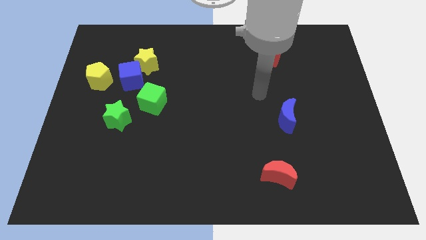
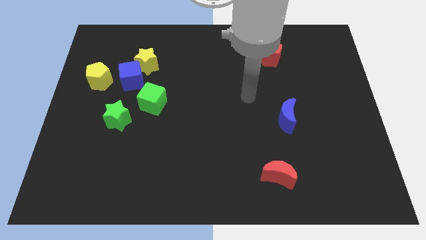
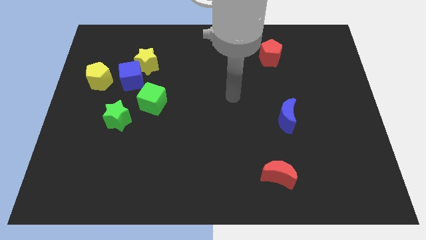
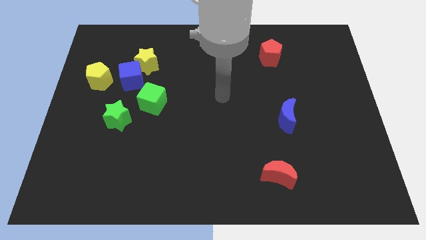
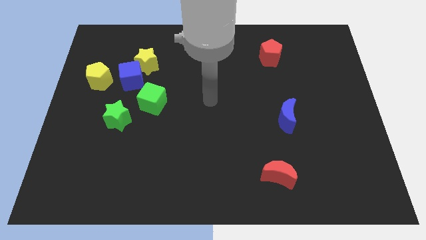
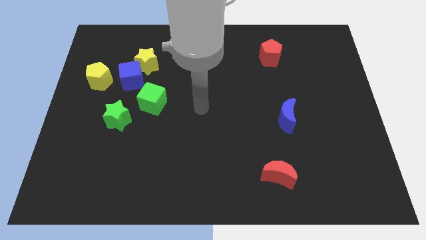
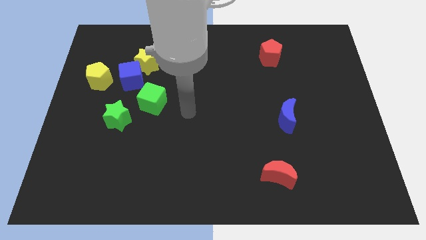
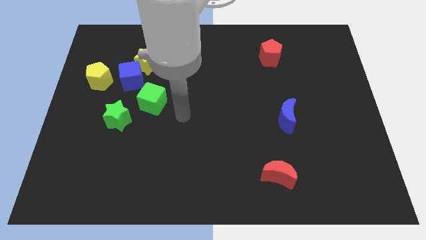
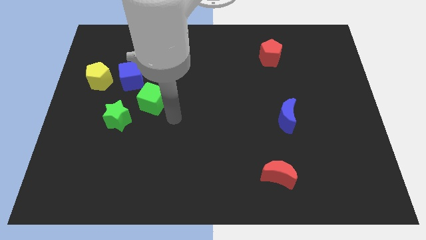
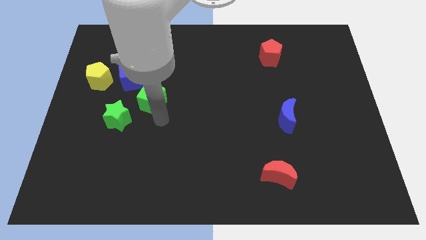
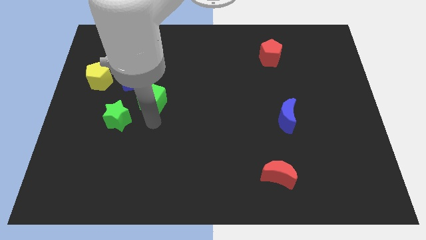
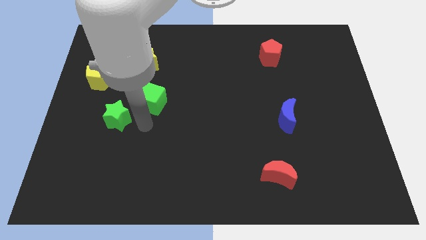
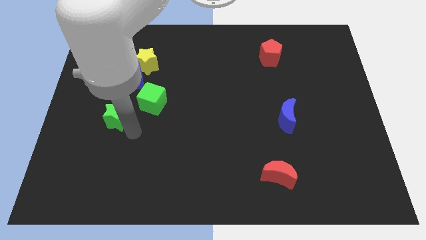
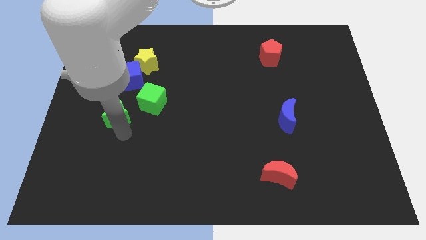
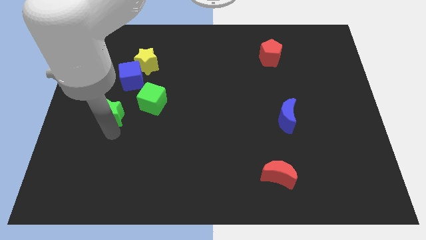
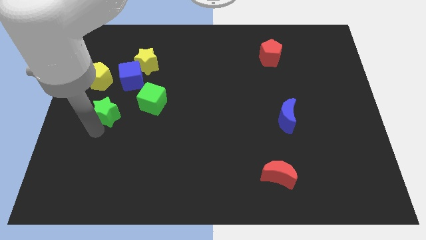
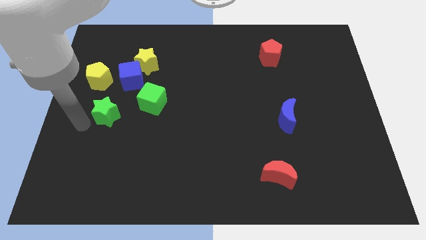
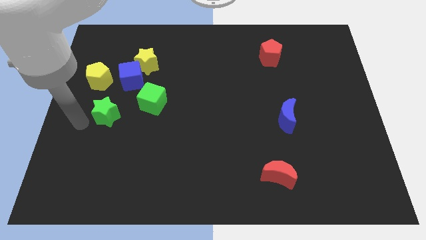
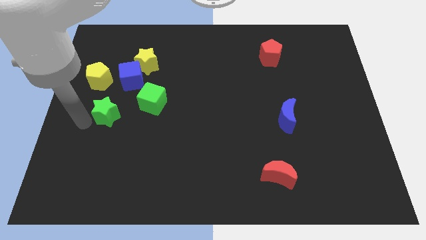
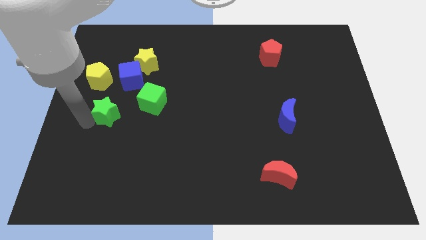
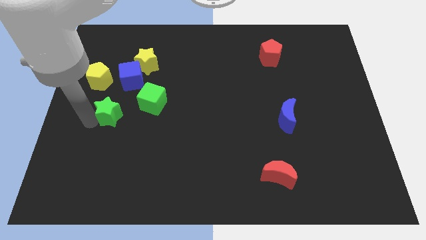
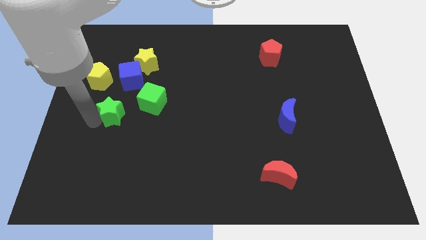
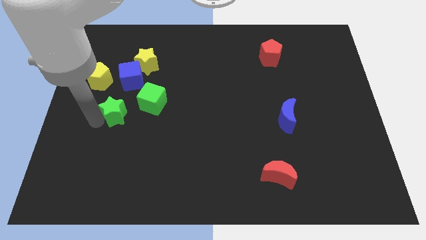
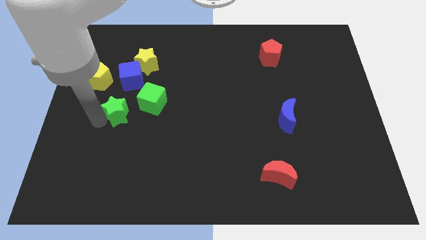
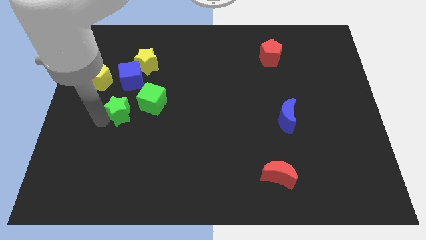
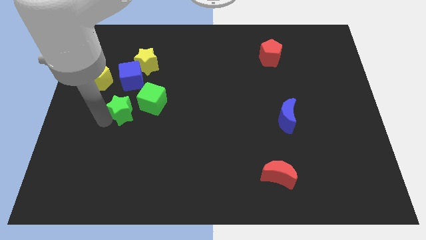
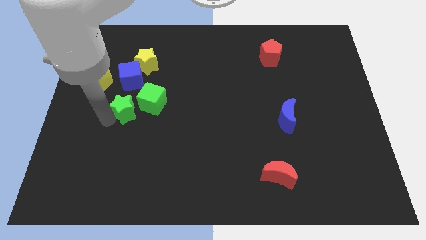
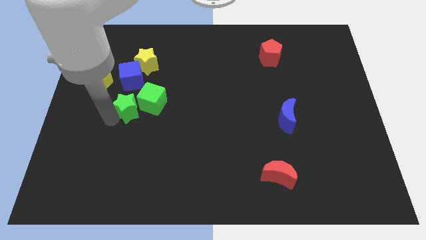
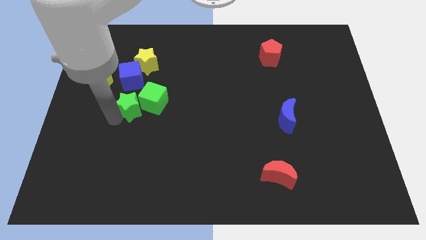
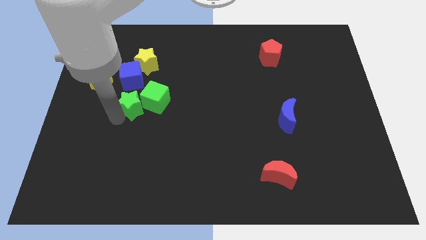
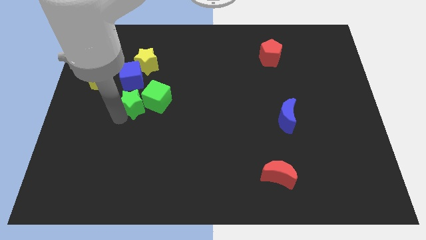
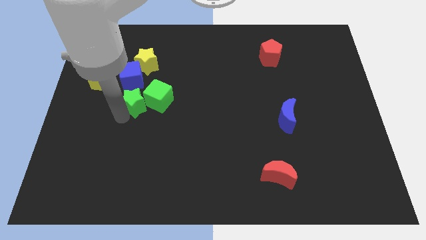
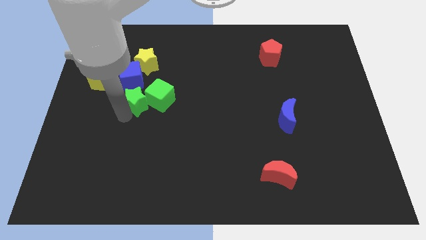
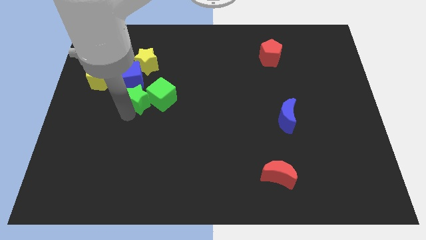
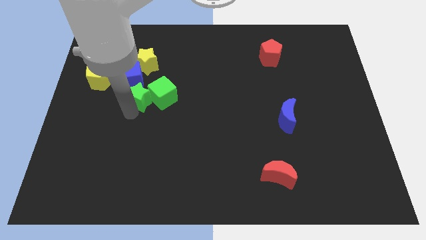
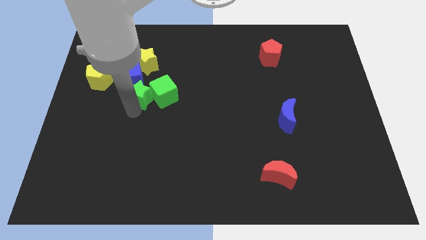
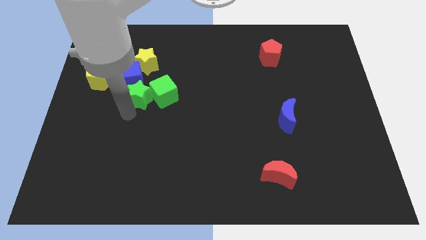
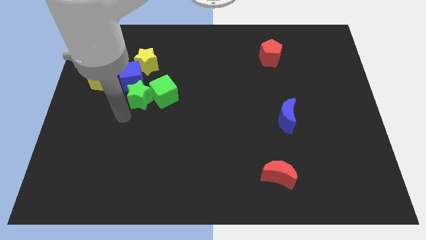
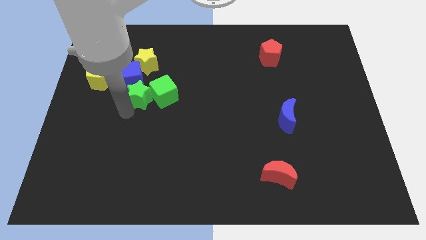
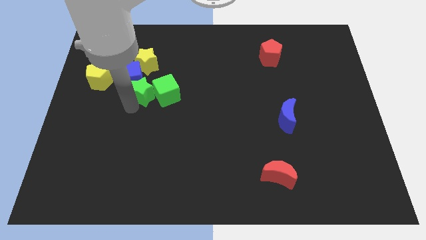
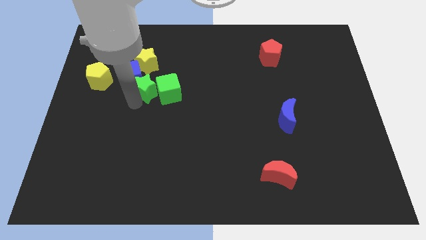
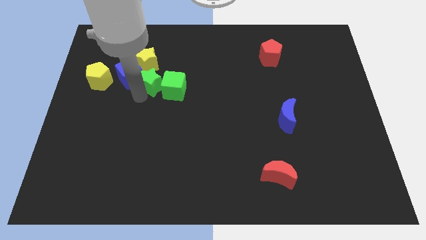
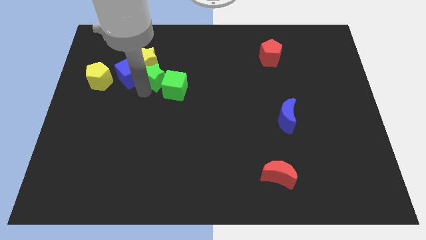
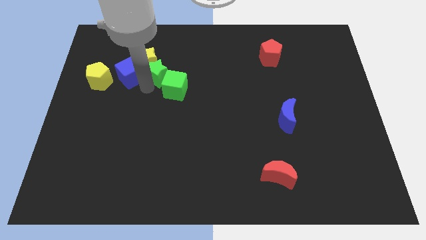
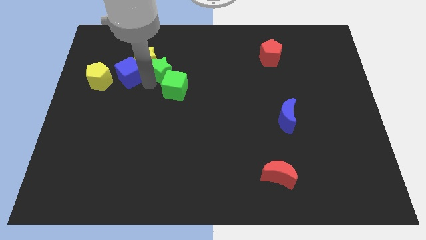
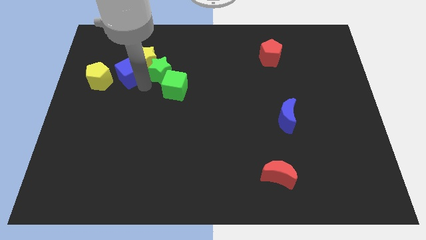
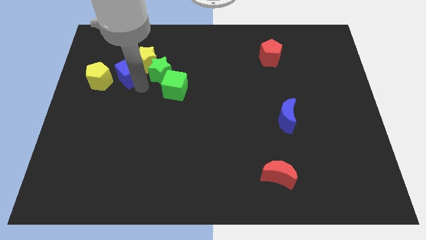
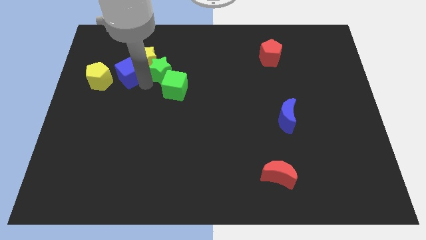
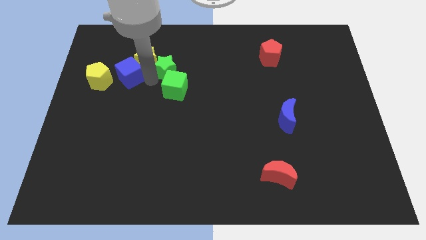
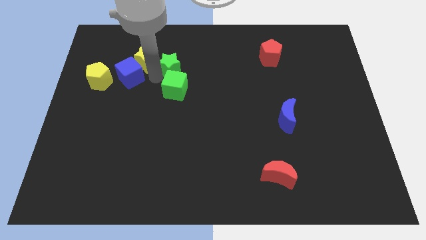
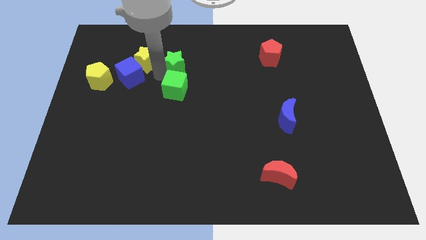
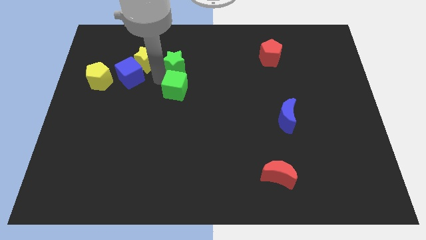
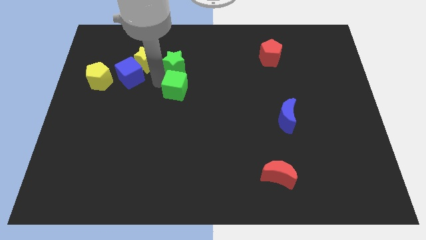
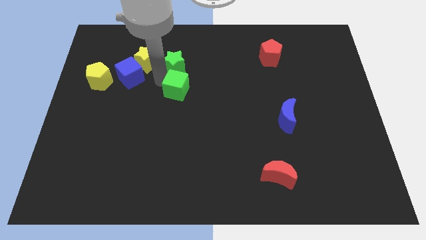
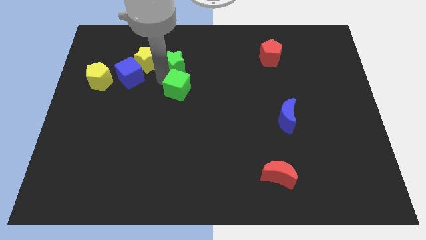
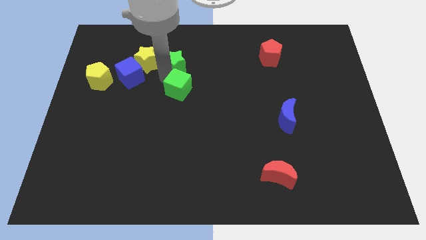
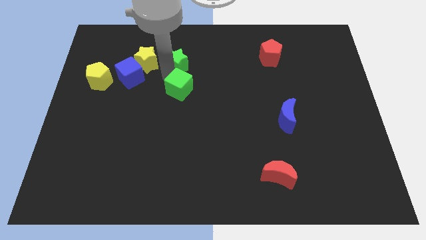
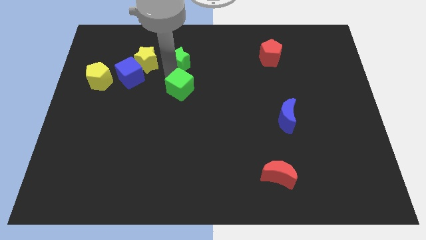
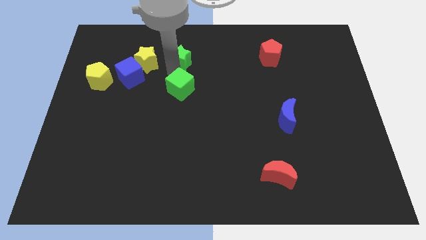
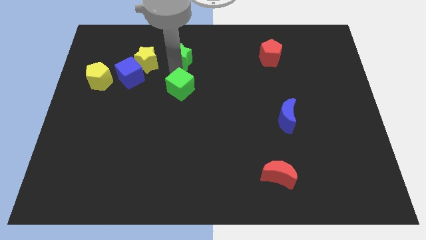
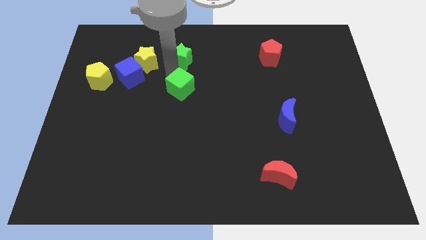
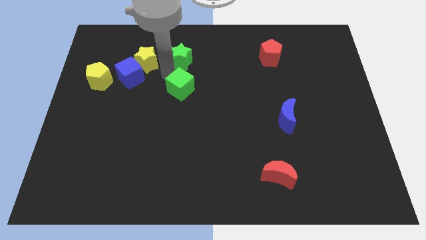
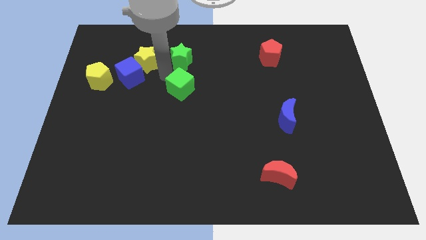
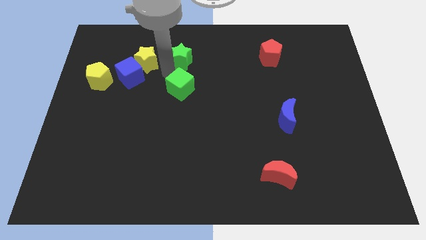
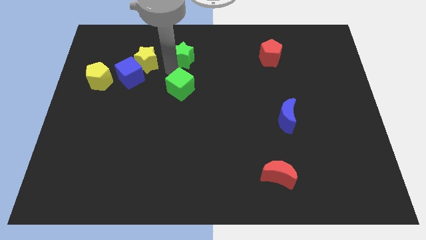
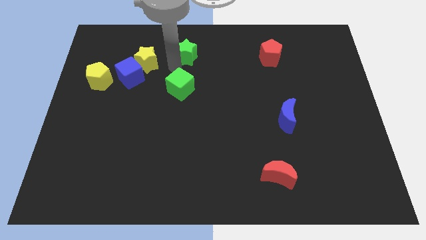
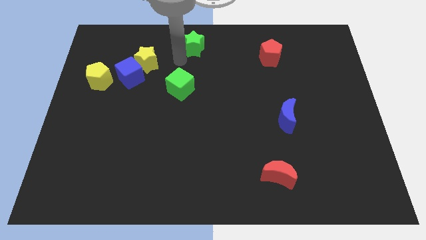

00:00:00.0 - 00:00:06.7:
put the green star to the towards your base

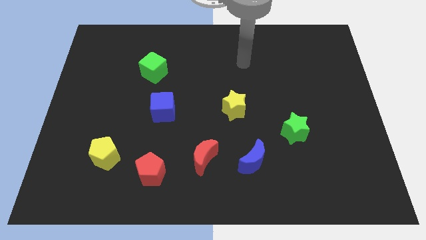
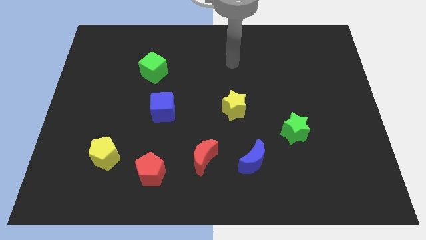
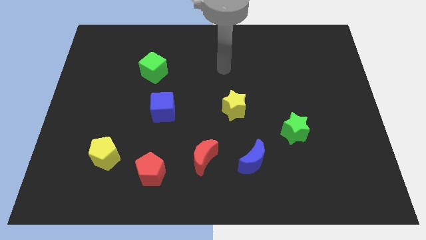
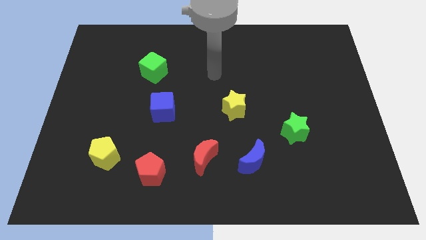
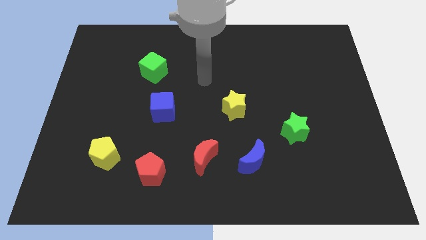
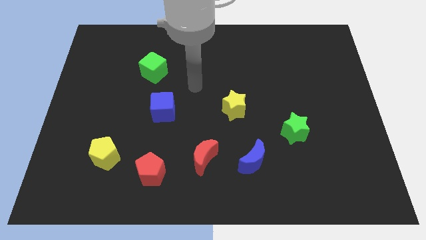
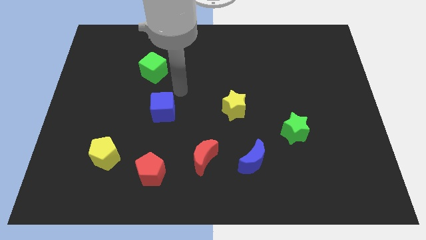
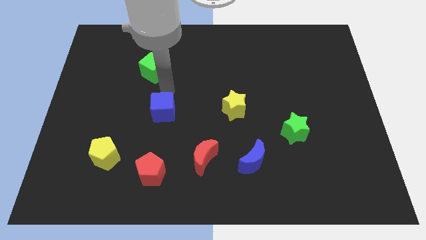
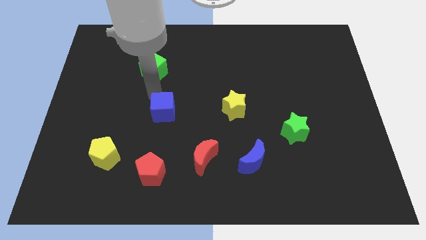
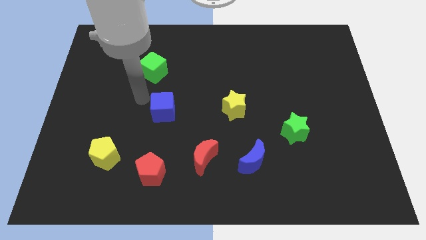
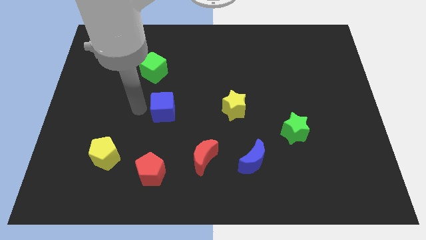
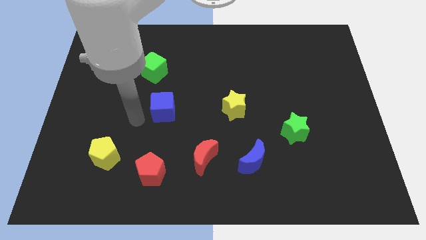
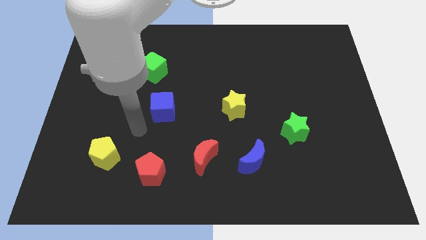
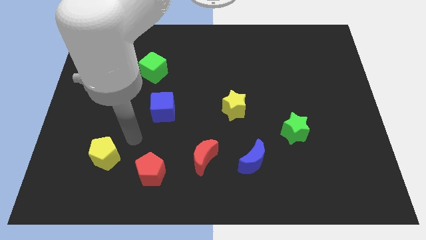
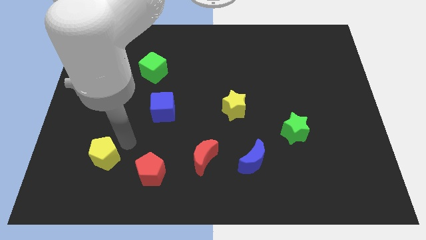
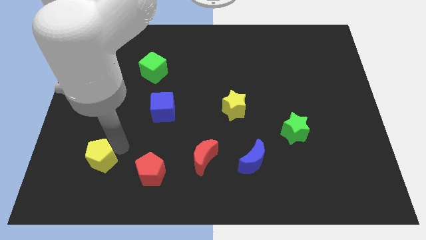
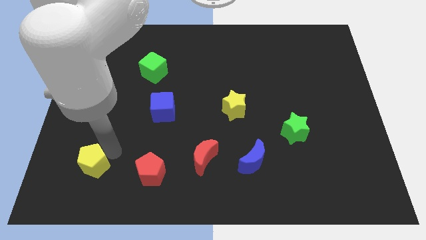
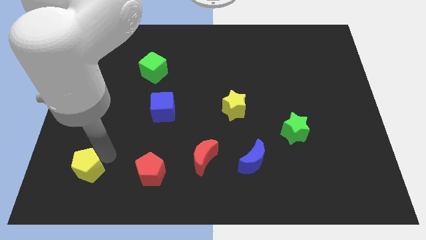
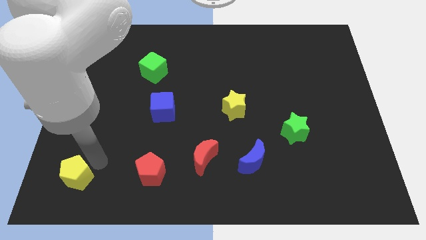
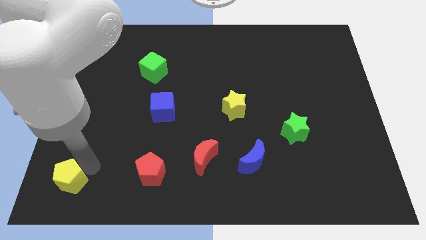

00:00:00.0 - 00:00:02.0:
move the yellow pentagon to the bottom left corner
